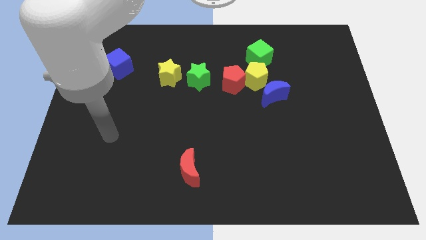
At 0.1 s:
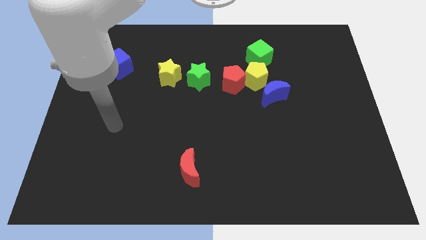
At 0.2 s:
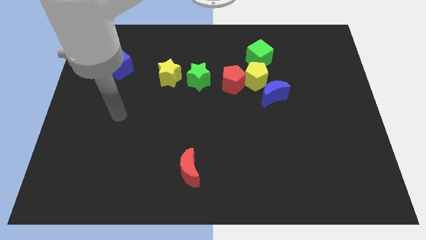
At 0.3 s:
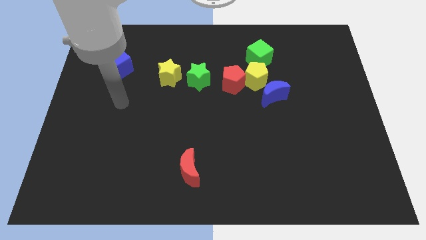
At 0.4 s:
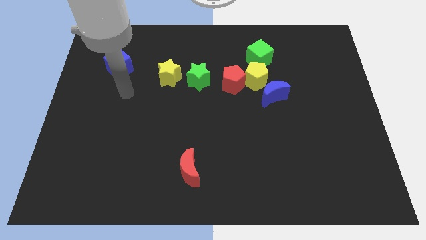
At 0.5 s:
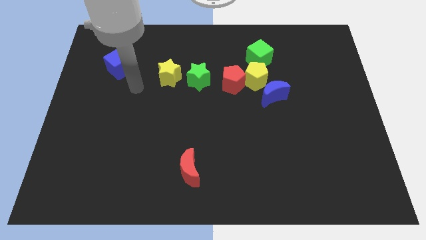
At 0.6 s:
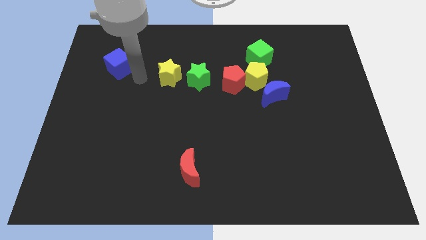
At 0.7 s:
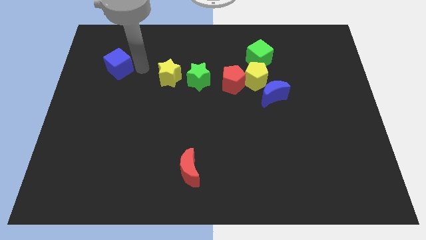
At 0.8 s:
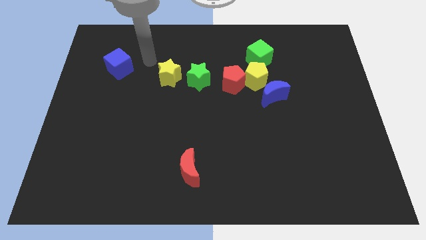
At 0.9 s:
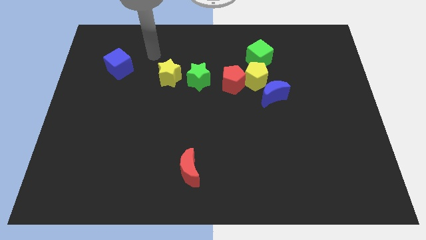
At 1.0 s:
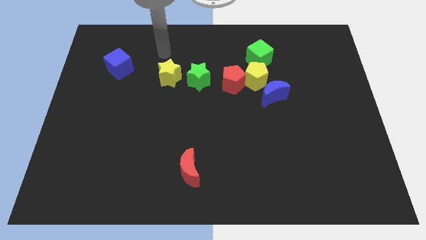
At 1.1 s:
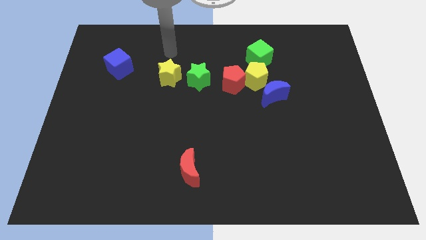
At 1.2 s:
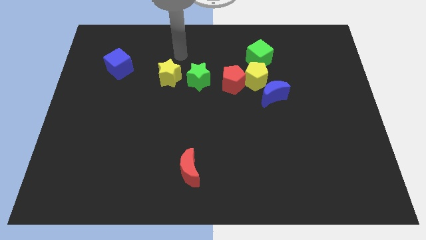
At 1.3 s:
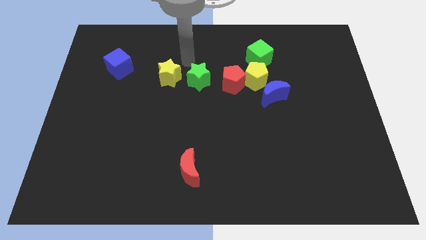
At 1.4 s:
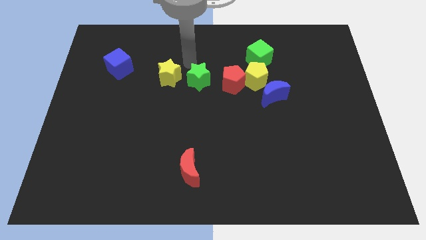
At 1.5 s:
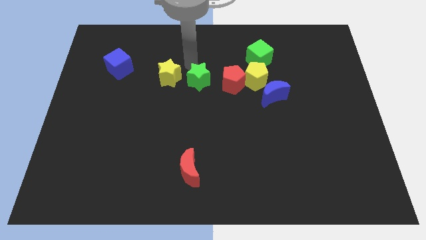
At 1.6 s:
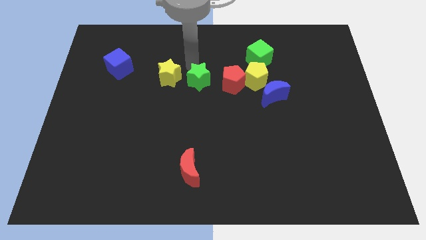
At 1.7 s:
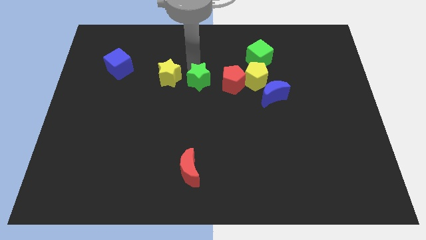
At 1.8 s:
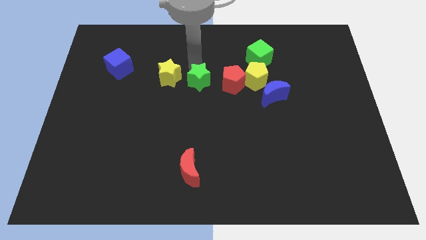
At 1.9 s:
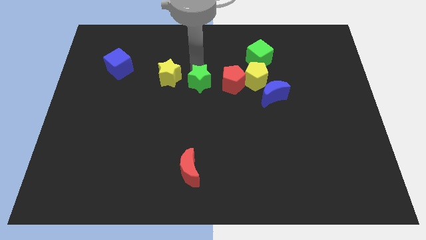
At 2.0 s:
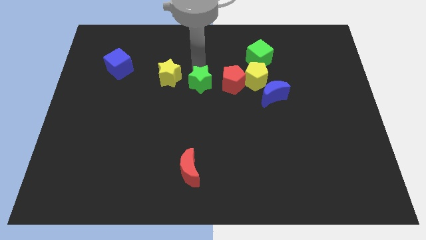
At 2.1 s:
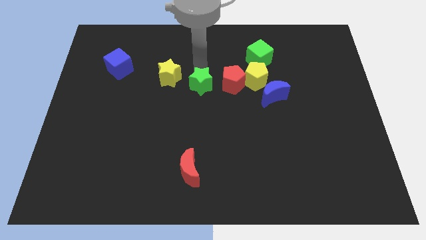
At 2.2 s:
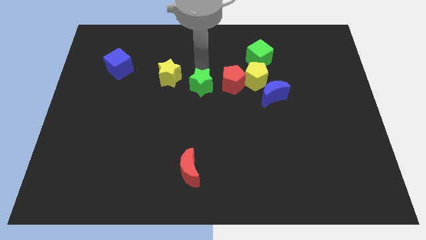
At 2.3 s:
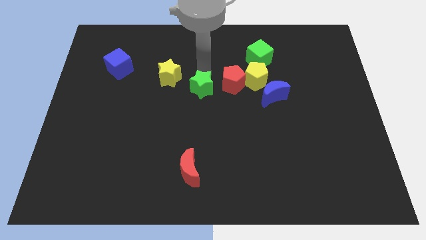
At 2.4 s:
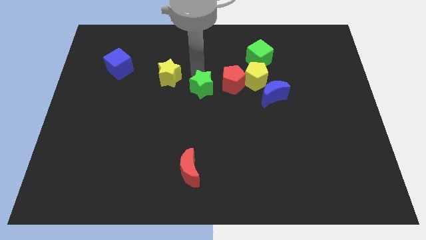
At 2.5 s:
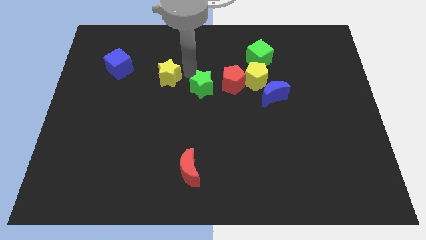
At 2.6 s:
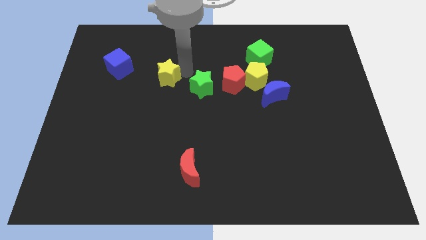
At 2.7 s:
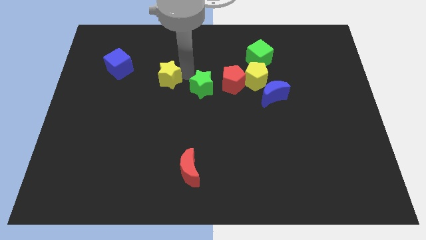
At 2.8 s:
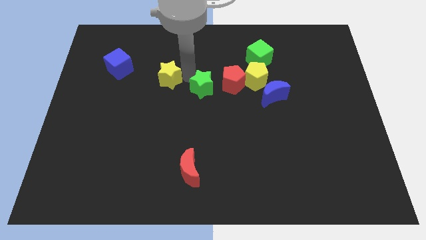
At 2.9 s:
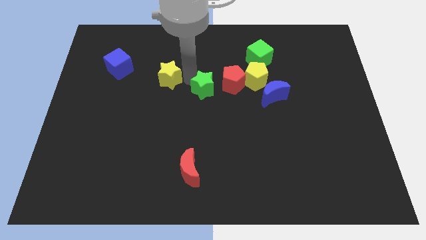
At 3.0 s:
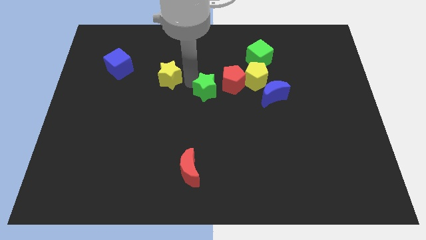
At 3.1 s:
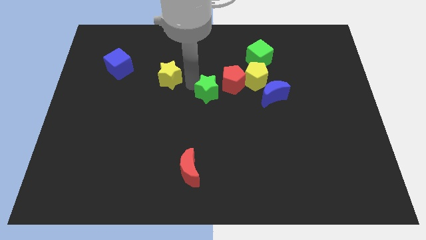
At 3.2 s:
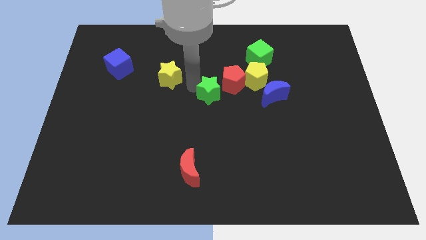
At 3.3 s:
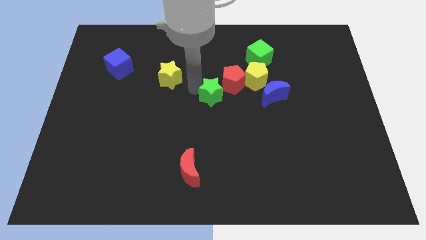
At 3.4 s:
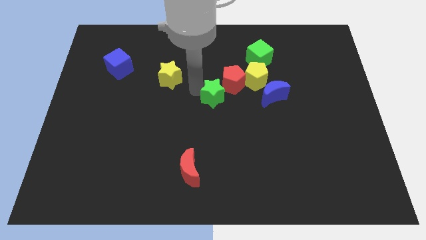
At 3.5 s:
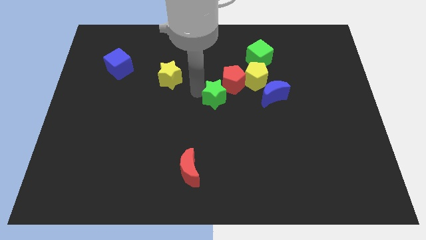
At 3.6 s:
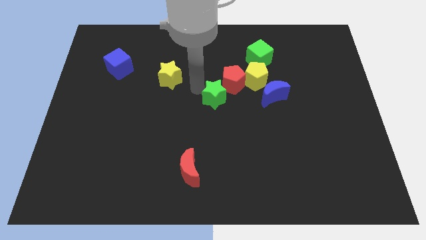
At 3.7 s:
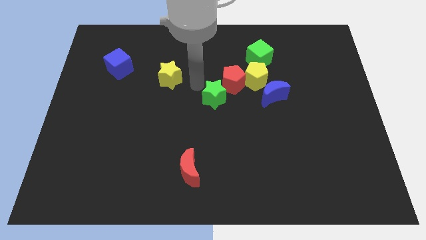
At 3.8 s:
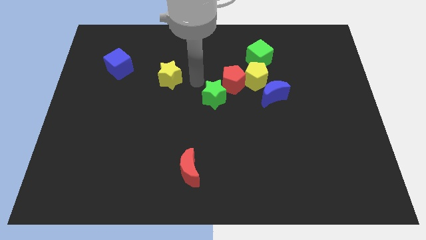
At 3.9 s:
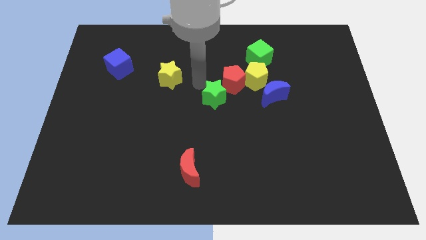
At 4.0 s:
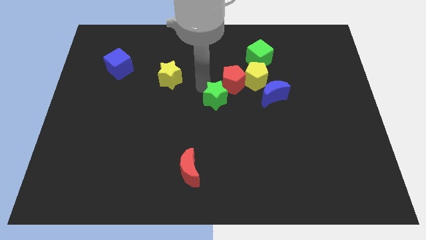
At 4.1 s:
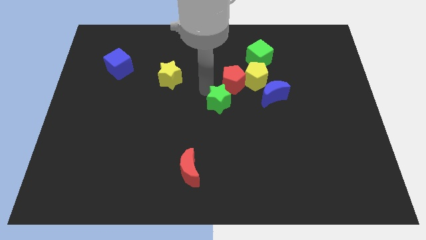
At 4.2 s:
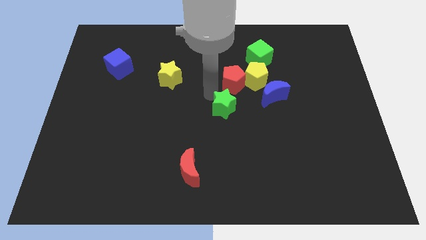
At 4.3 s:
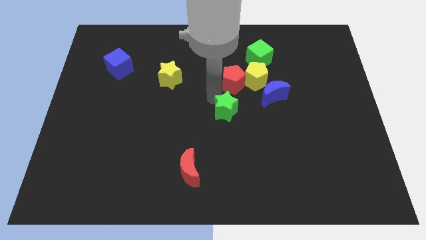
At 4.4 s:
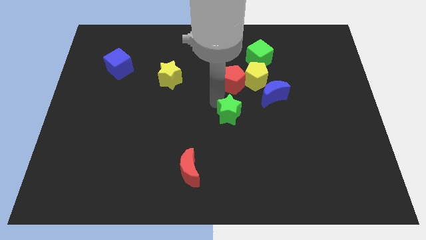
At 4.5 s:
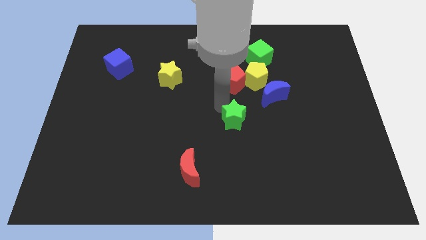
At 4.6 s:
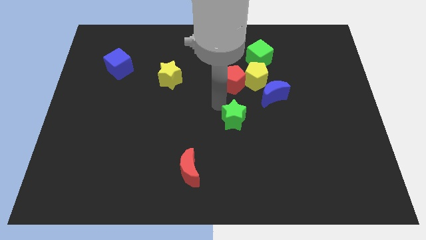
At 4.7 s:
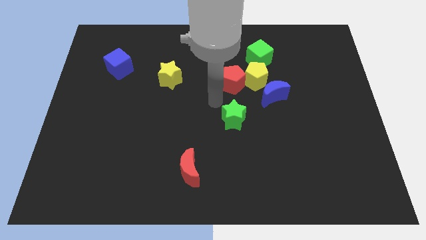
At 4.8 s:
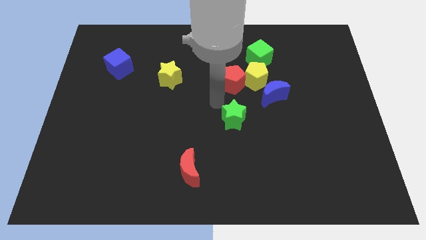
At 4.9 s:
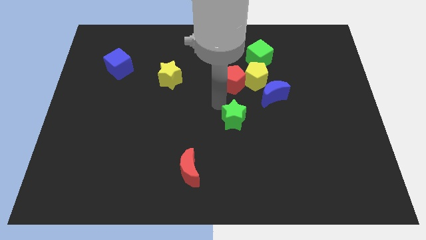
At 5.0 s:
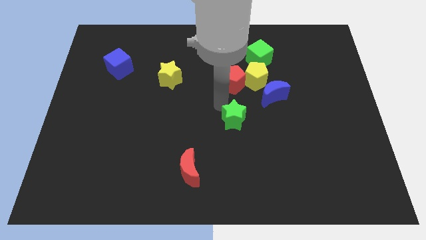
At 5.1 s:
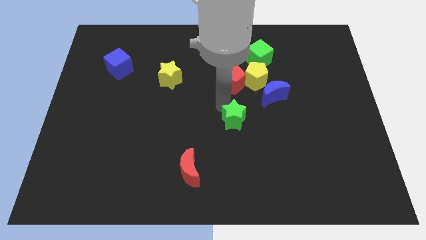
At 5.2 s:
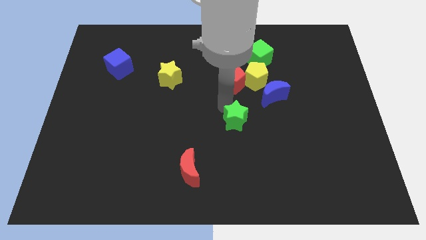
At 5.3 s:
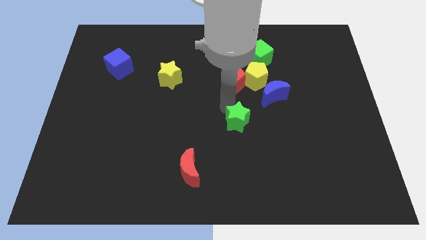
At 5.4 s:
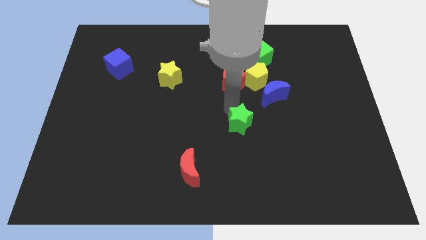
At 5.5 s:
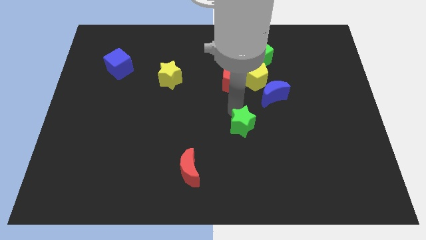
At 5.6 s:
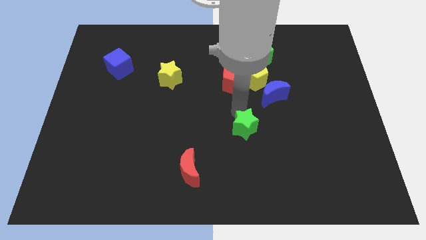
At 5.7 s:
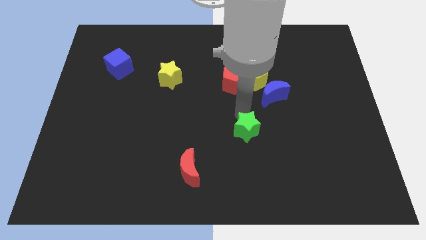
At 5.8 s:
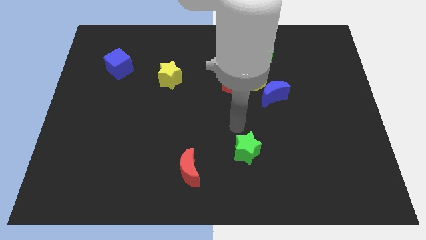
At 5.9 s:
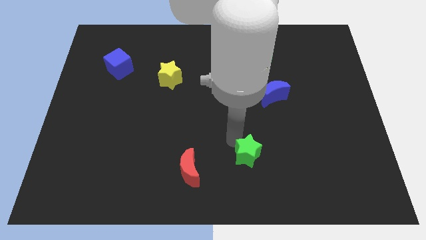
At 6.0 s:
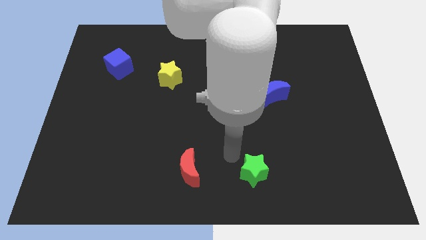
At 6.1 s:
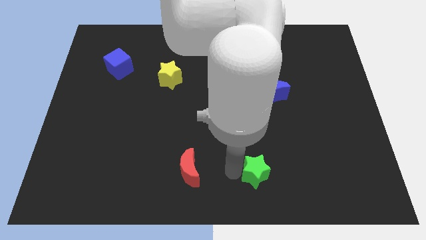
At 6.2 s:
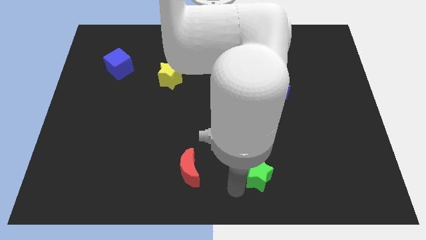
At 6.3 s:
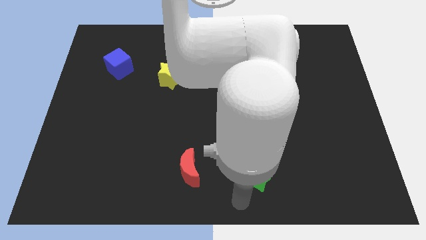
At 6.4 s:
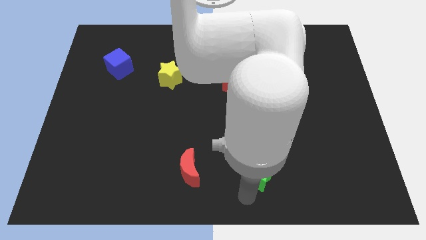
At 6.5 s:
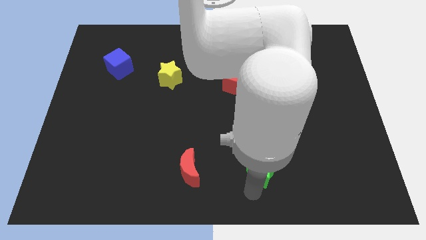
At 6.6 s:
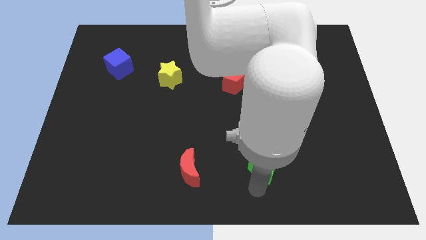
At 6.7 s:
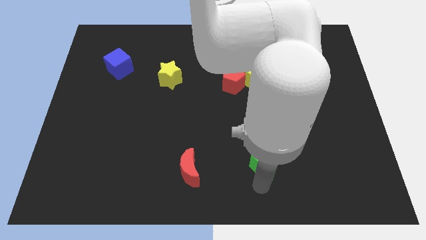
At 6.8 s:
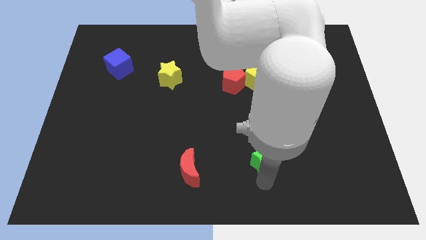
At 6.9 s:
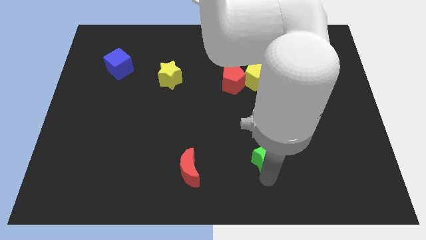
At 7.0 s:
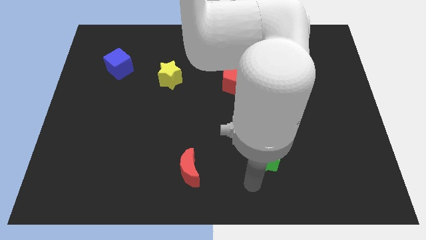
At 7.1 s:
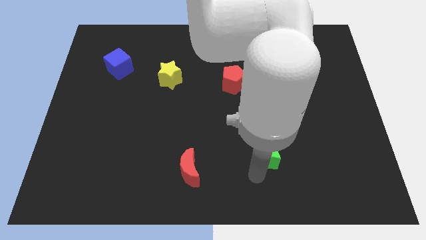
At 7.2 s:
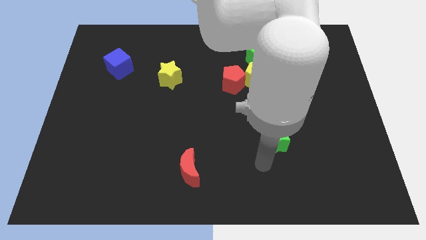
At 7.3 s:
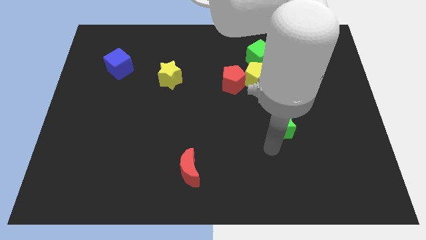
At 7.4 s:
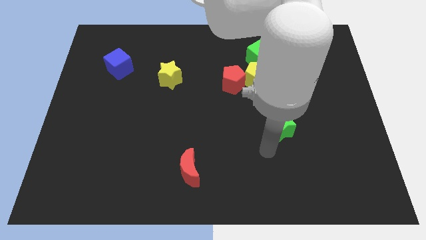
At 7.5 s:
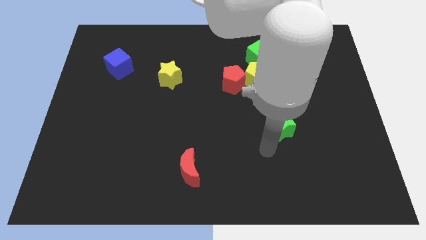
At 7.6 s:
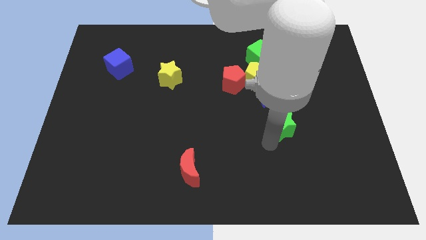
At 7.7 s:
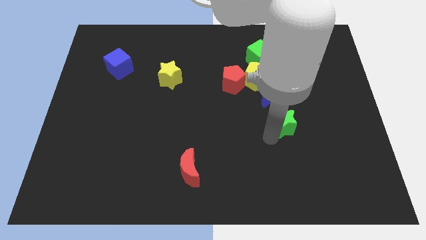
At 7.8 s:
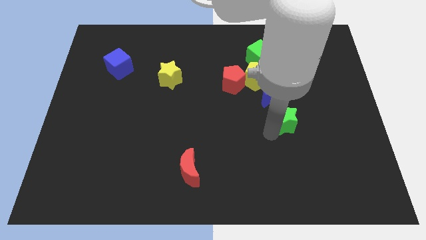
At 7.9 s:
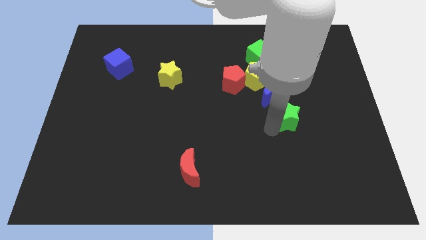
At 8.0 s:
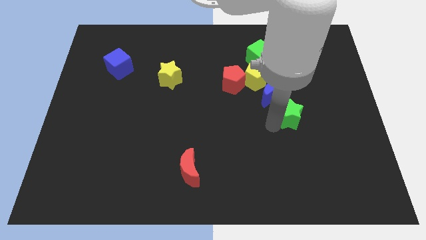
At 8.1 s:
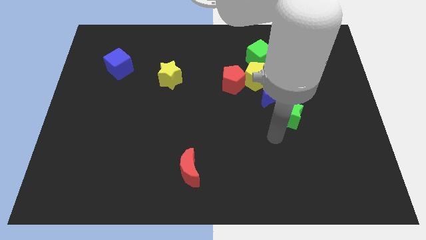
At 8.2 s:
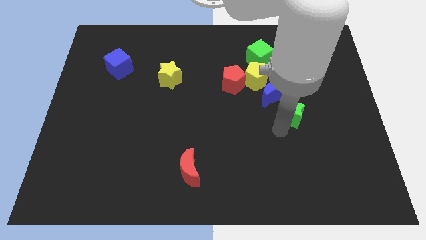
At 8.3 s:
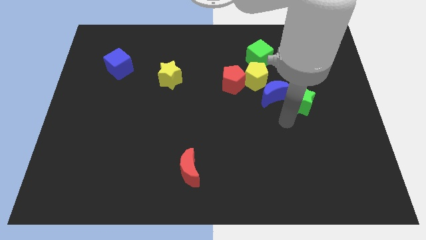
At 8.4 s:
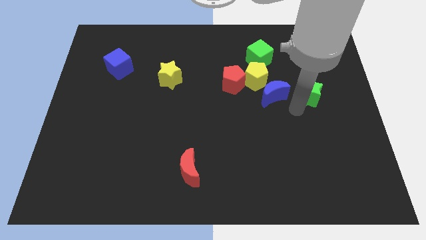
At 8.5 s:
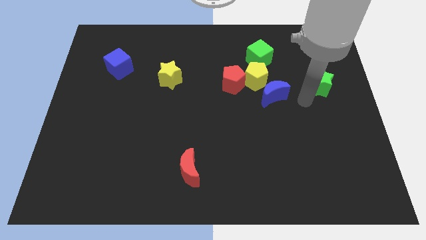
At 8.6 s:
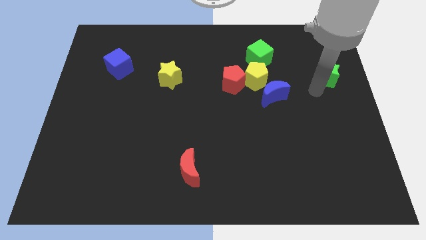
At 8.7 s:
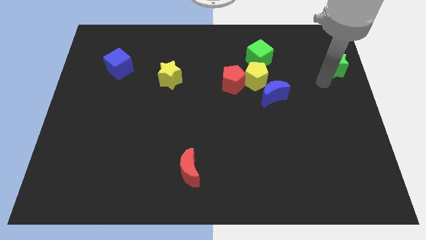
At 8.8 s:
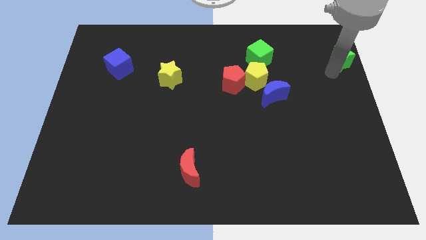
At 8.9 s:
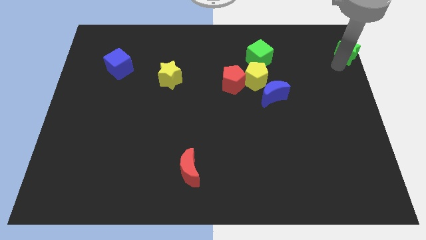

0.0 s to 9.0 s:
move the green star to the top right
